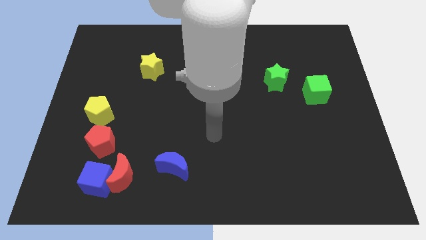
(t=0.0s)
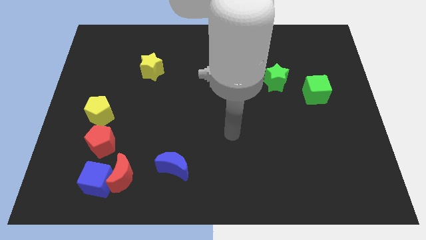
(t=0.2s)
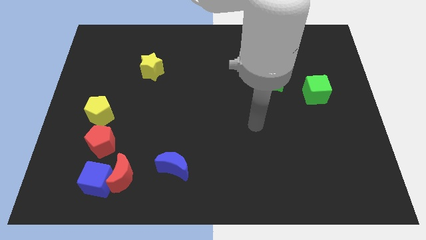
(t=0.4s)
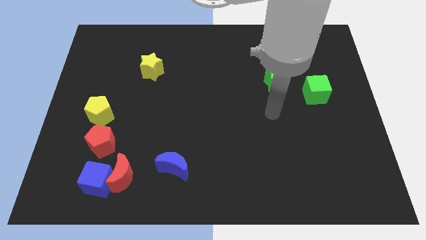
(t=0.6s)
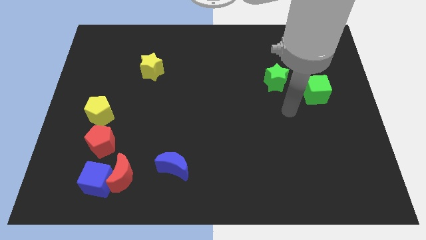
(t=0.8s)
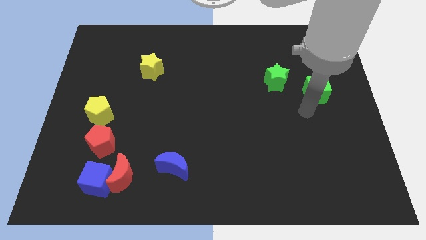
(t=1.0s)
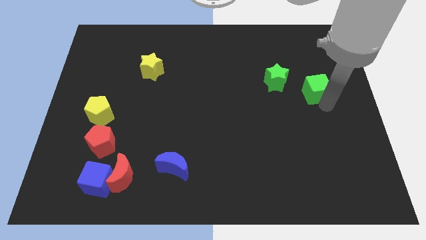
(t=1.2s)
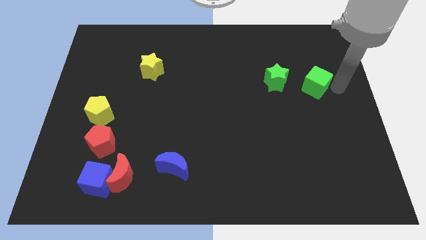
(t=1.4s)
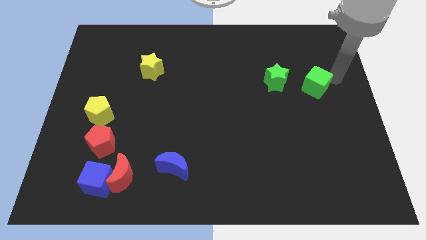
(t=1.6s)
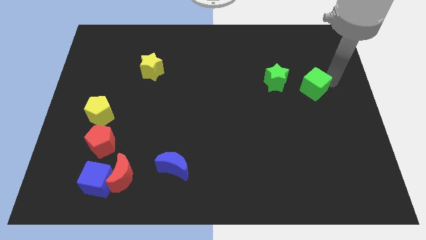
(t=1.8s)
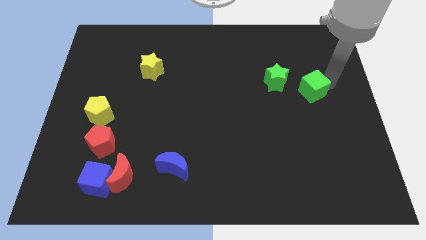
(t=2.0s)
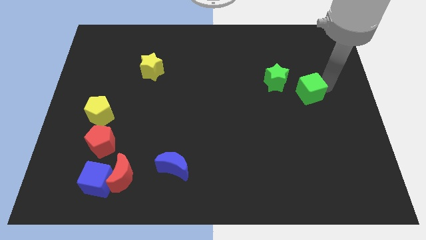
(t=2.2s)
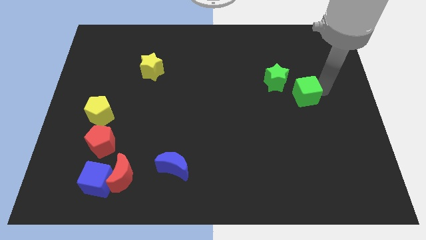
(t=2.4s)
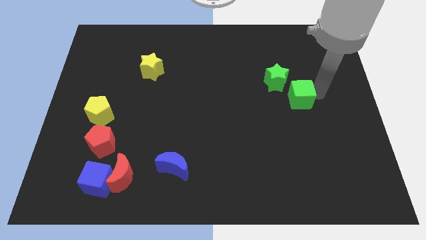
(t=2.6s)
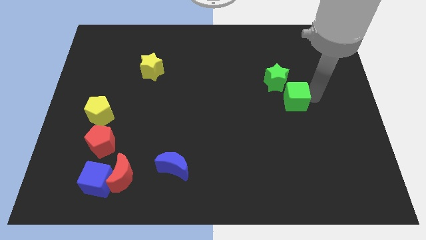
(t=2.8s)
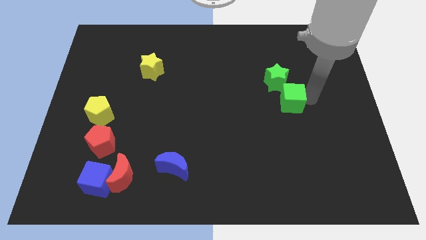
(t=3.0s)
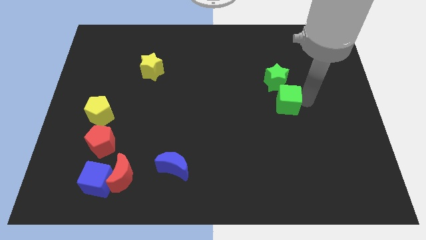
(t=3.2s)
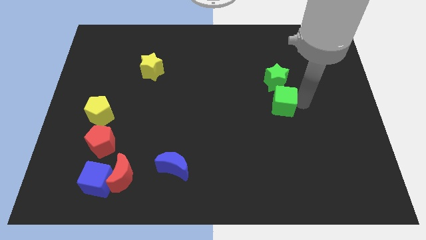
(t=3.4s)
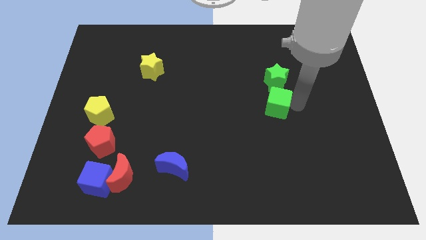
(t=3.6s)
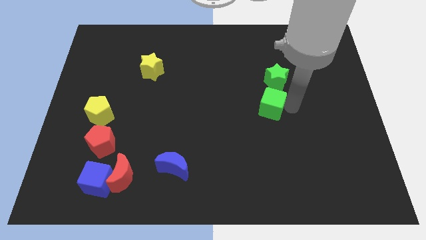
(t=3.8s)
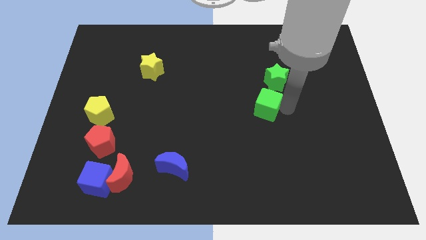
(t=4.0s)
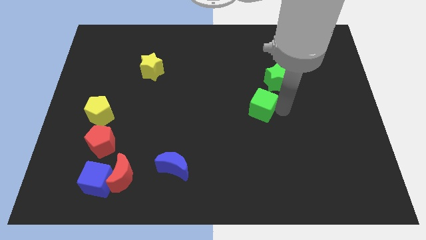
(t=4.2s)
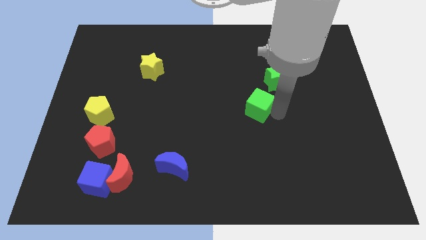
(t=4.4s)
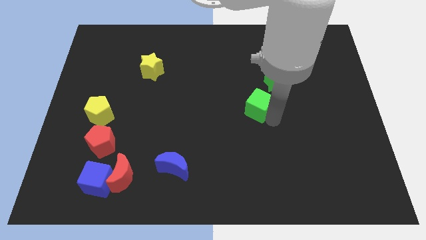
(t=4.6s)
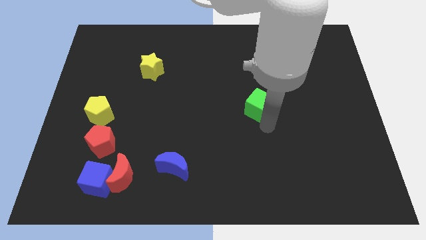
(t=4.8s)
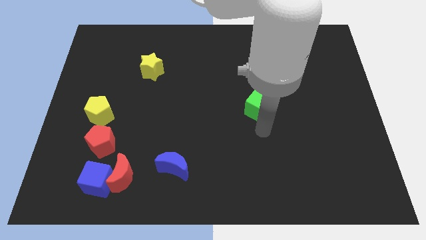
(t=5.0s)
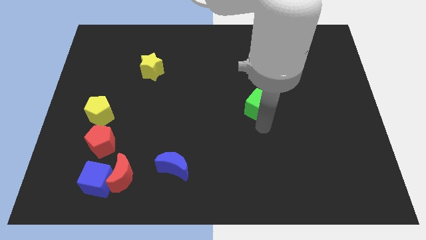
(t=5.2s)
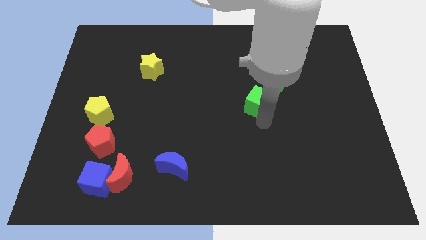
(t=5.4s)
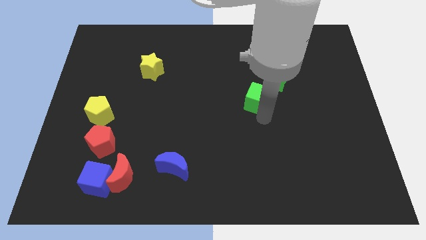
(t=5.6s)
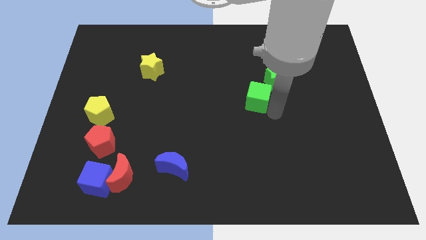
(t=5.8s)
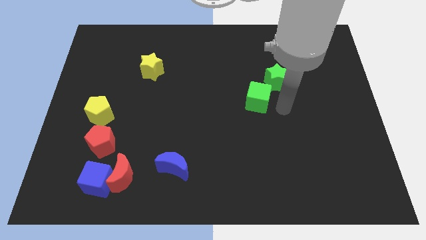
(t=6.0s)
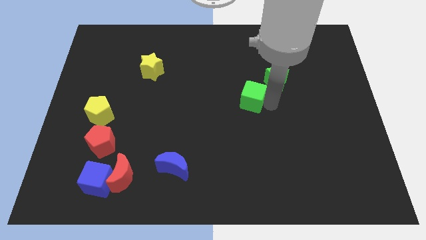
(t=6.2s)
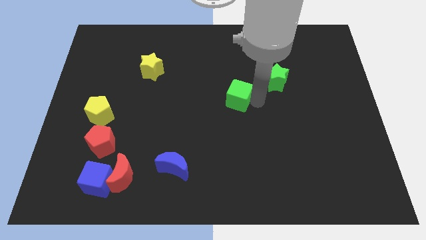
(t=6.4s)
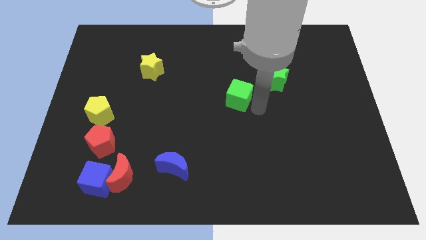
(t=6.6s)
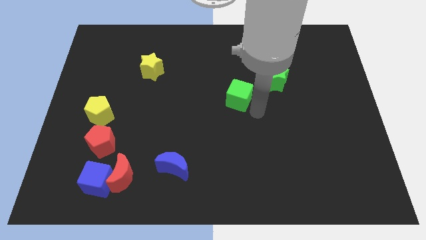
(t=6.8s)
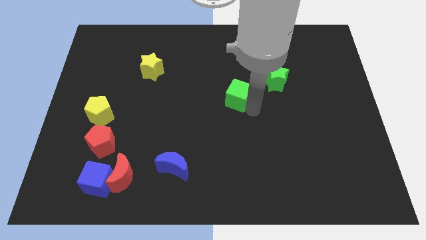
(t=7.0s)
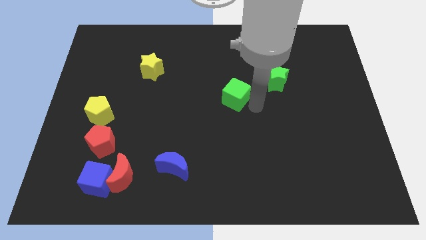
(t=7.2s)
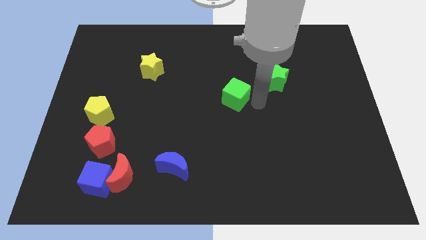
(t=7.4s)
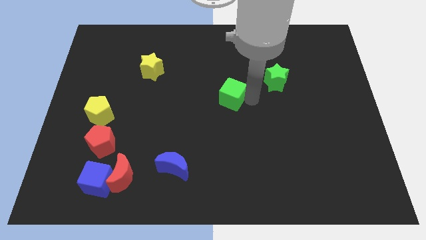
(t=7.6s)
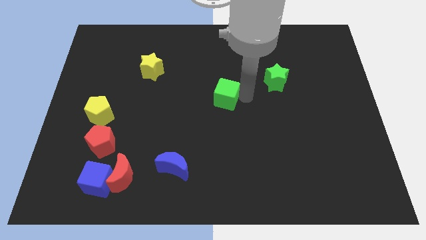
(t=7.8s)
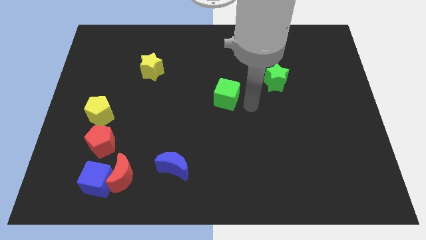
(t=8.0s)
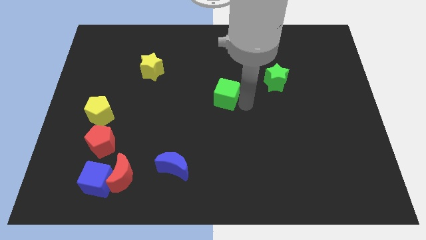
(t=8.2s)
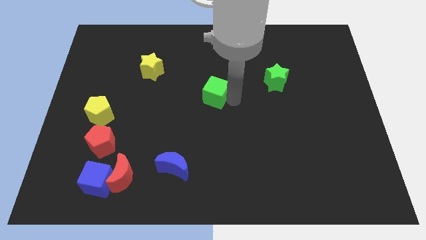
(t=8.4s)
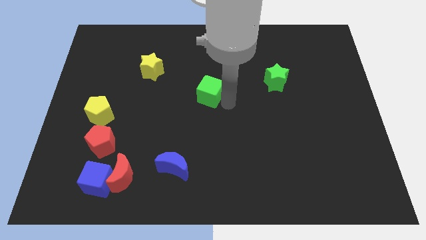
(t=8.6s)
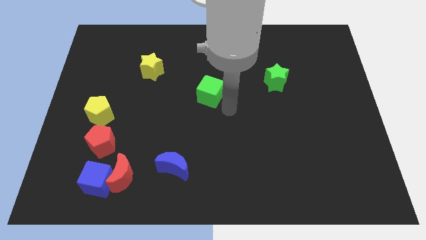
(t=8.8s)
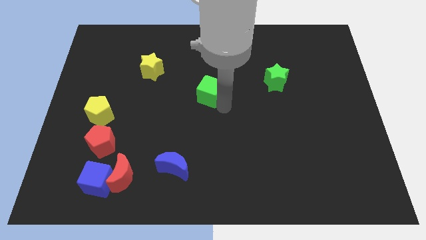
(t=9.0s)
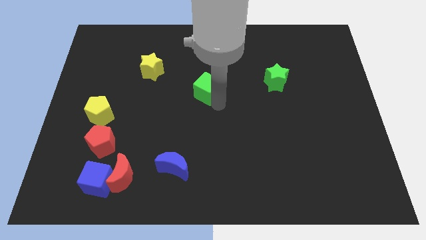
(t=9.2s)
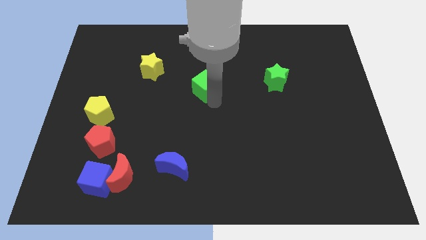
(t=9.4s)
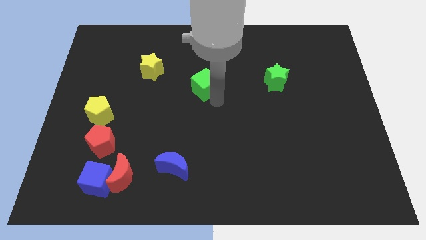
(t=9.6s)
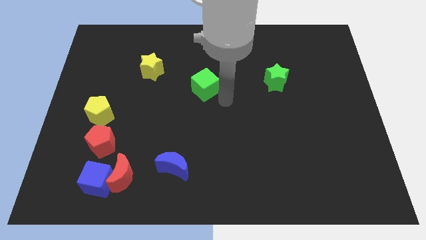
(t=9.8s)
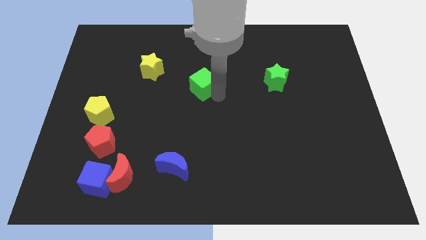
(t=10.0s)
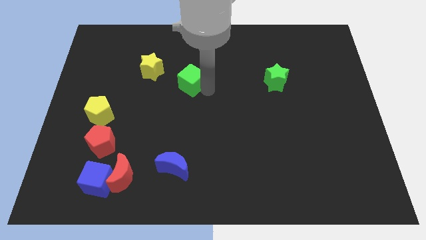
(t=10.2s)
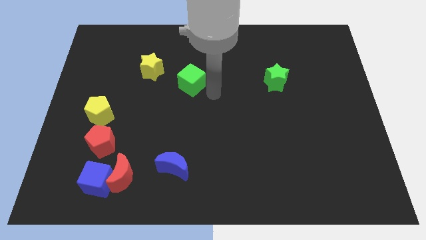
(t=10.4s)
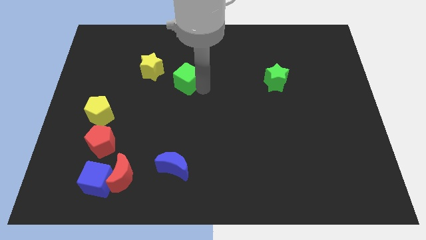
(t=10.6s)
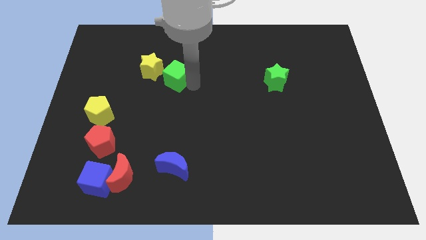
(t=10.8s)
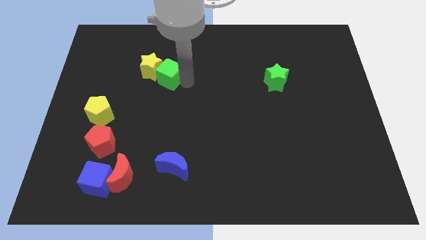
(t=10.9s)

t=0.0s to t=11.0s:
move the green cube towards the yellow star
